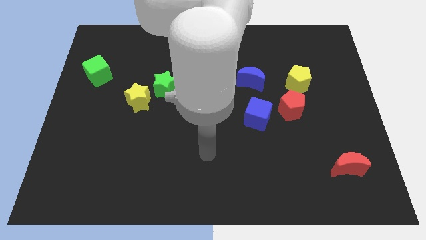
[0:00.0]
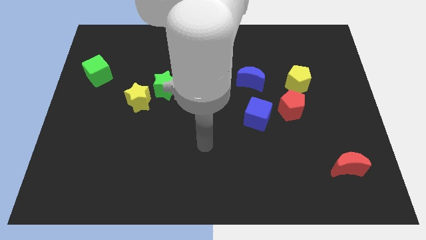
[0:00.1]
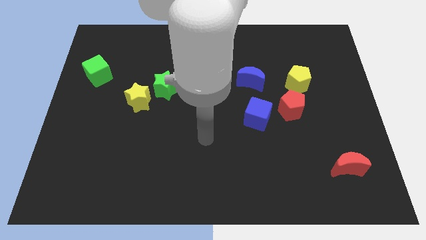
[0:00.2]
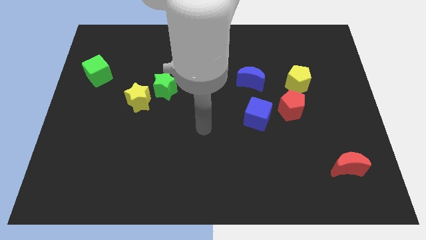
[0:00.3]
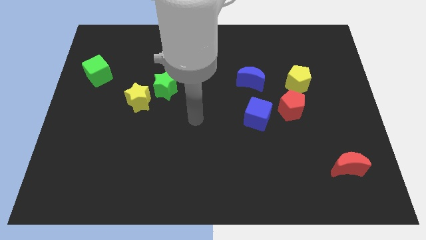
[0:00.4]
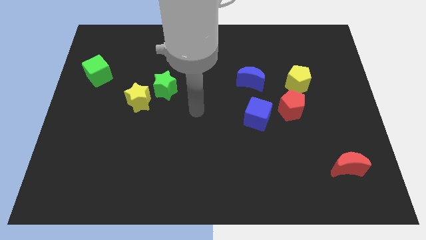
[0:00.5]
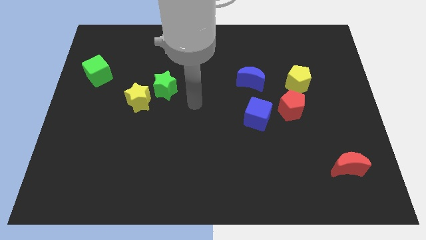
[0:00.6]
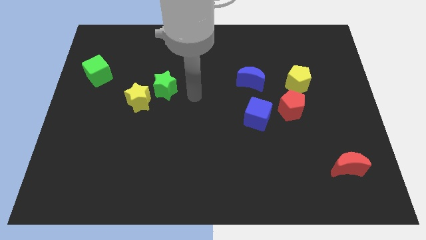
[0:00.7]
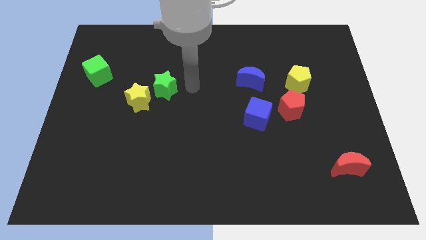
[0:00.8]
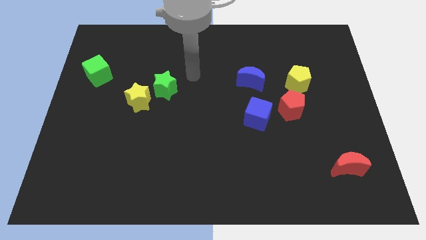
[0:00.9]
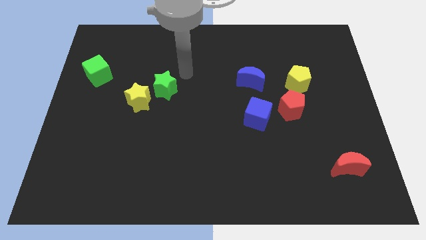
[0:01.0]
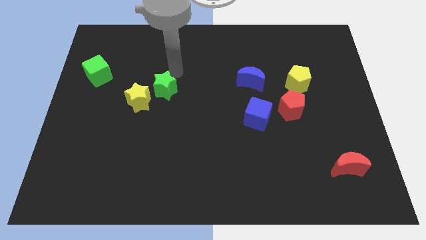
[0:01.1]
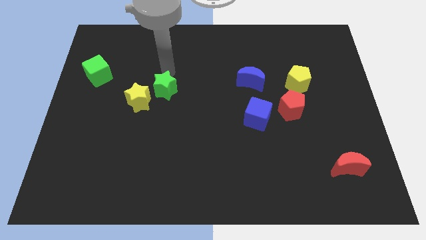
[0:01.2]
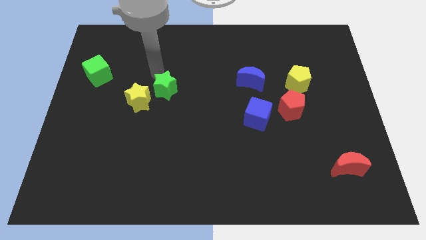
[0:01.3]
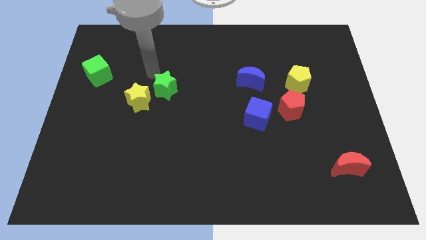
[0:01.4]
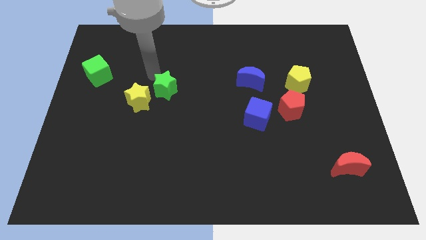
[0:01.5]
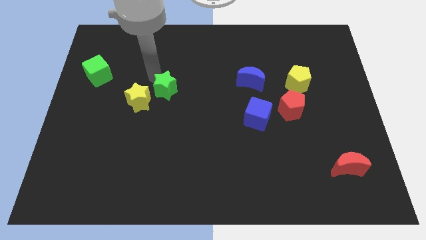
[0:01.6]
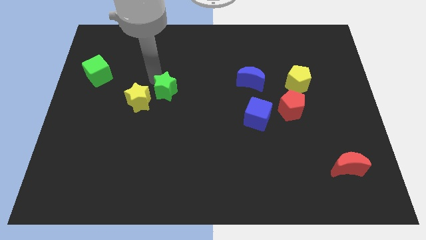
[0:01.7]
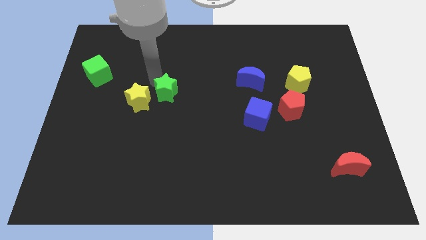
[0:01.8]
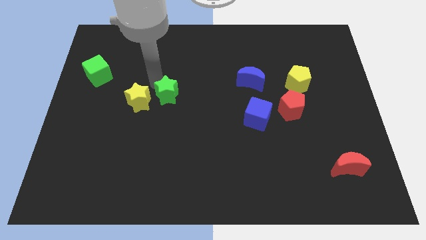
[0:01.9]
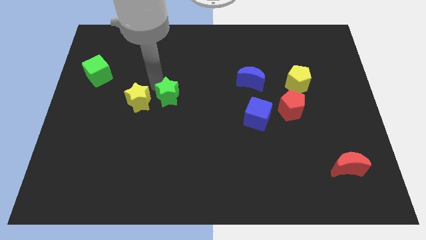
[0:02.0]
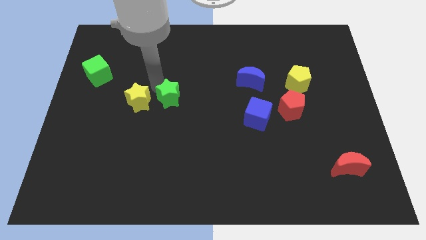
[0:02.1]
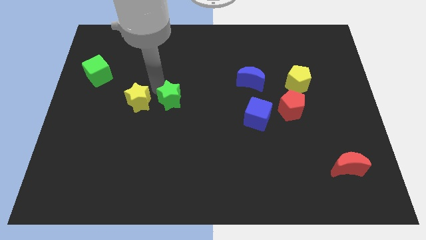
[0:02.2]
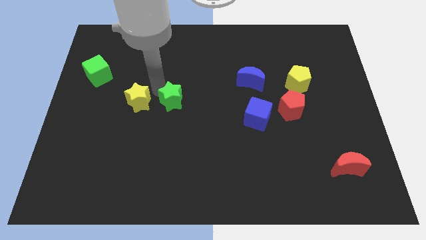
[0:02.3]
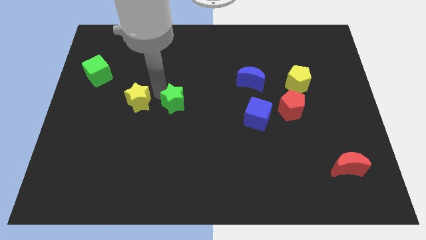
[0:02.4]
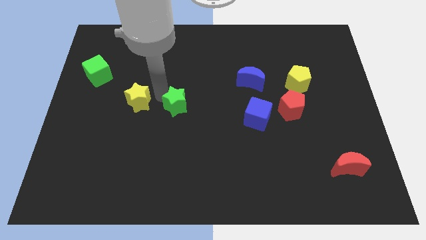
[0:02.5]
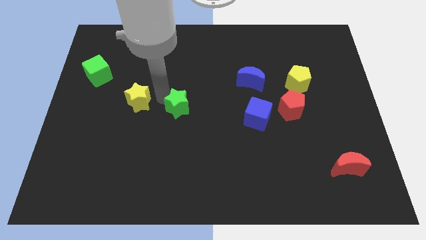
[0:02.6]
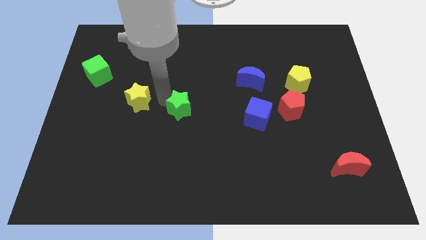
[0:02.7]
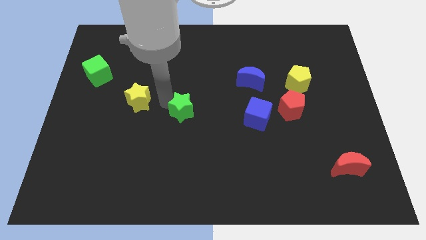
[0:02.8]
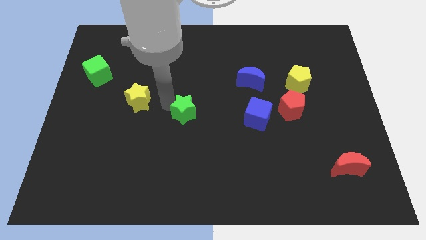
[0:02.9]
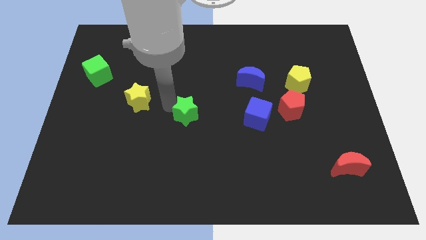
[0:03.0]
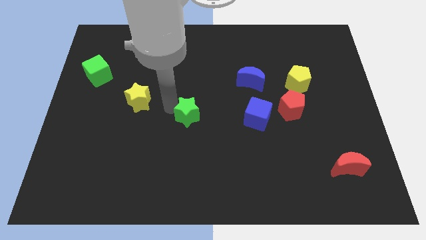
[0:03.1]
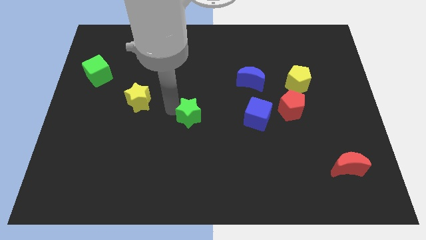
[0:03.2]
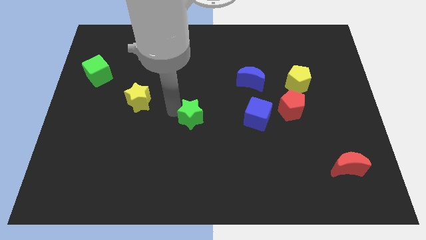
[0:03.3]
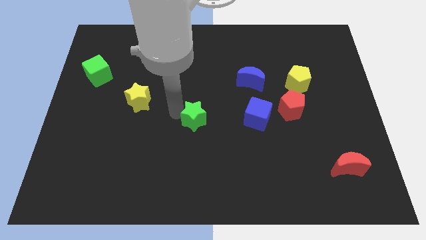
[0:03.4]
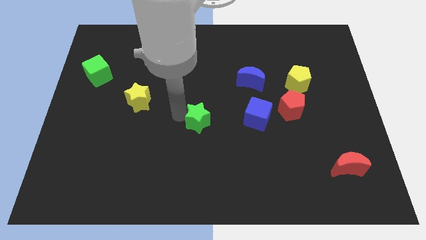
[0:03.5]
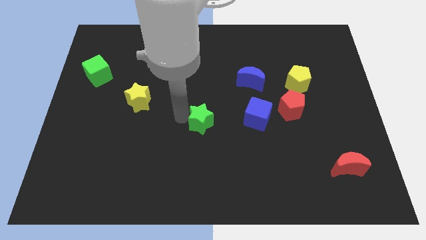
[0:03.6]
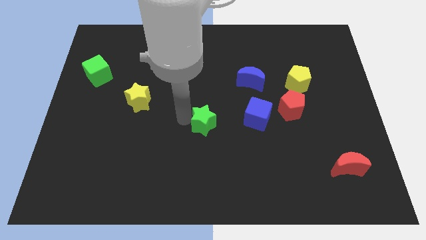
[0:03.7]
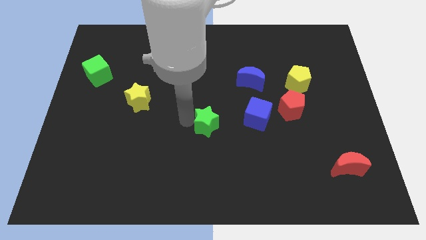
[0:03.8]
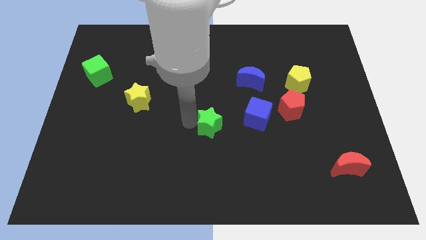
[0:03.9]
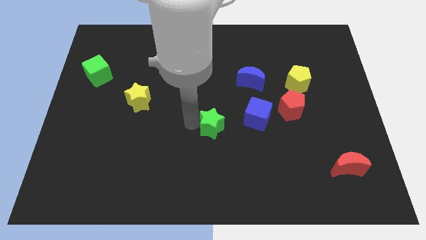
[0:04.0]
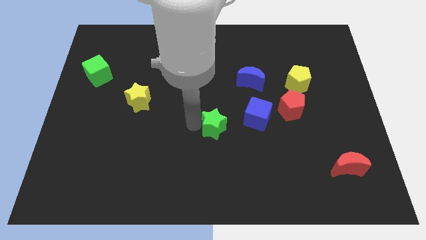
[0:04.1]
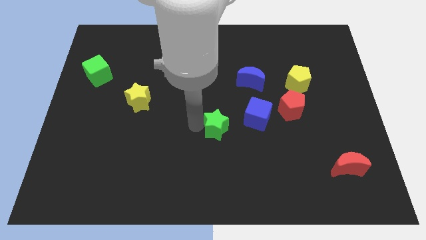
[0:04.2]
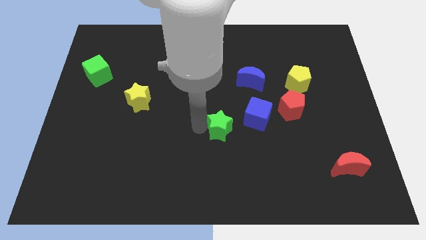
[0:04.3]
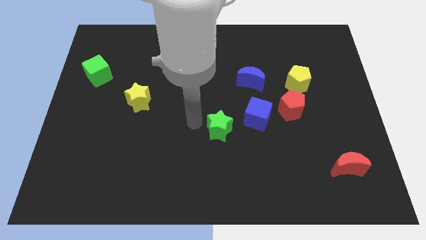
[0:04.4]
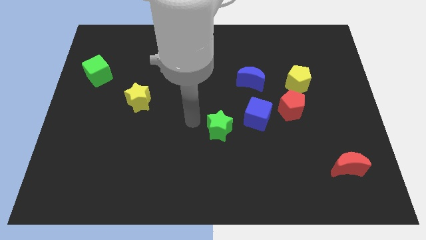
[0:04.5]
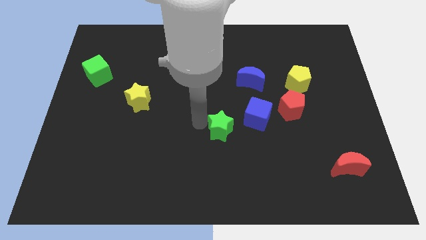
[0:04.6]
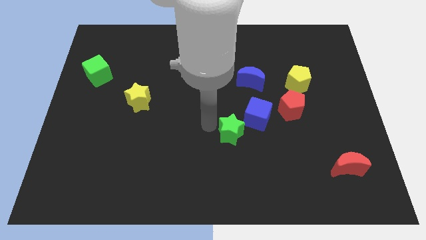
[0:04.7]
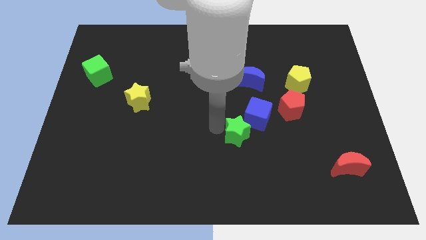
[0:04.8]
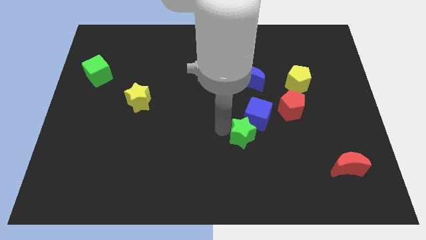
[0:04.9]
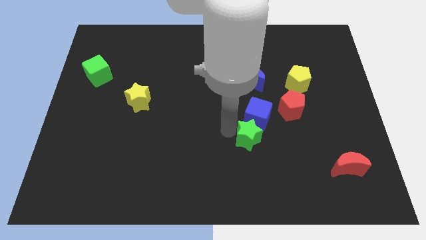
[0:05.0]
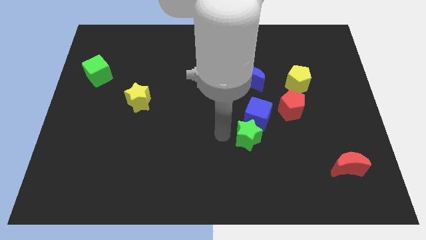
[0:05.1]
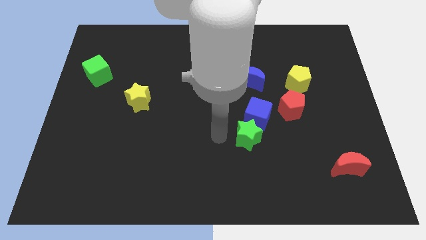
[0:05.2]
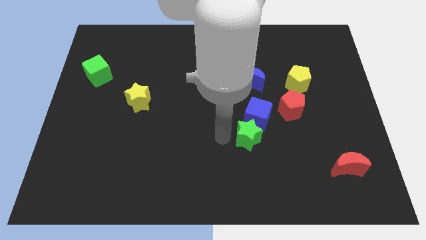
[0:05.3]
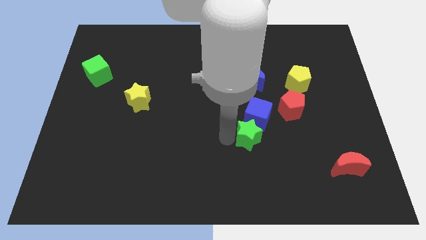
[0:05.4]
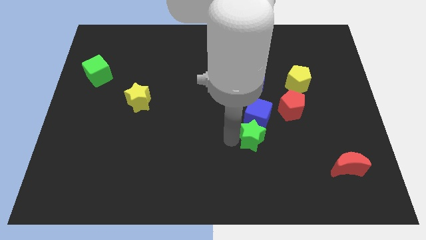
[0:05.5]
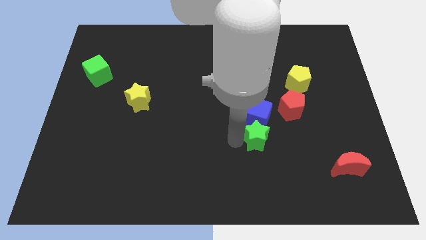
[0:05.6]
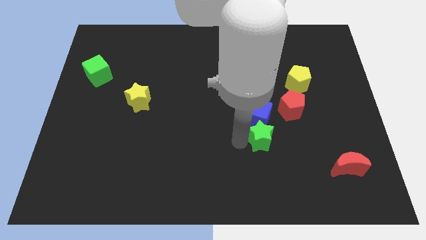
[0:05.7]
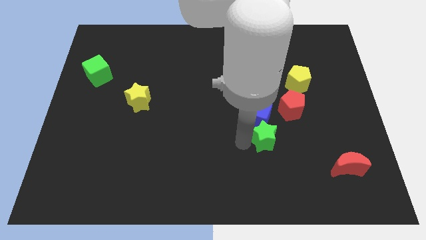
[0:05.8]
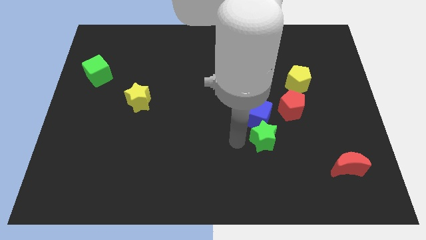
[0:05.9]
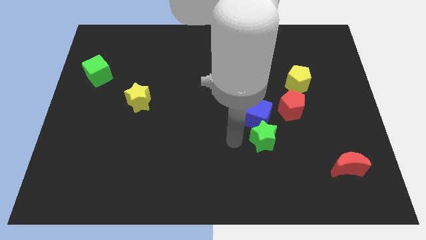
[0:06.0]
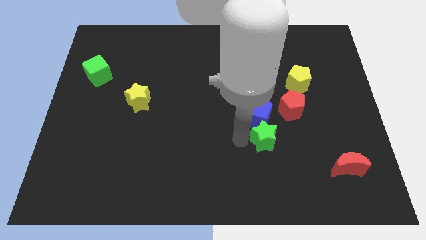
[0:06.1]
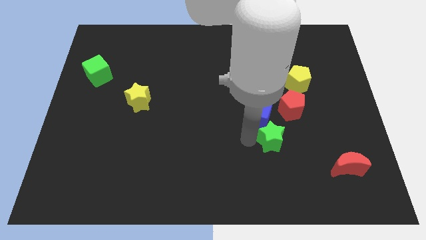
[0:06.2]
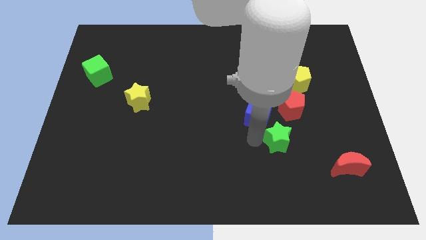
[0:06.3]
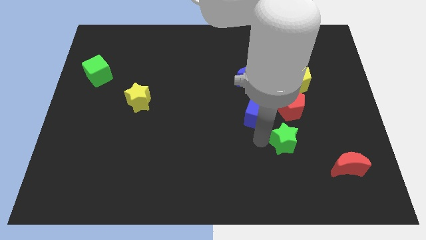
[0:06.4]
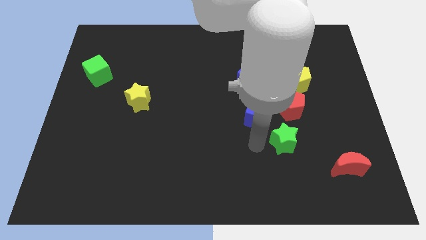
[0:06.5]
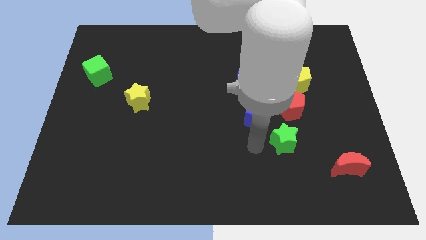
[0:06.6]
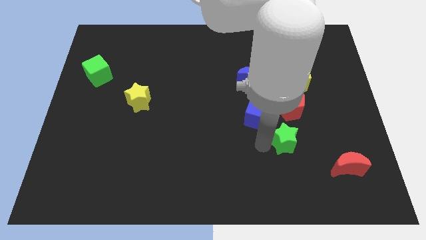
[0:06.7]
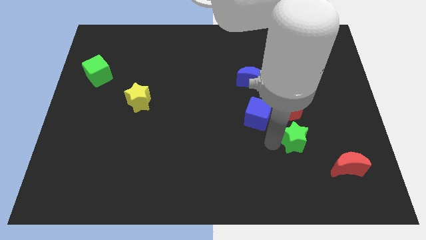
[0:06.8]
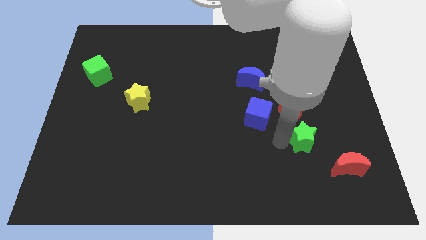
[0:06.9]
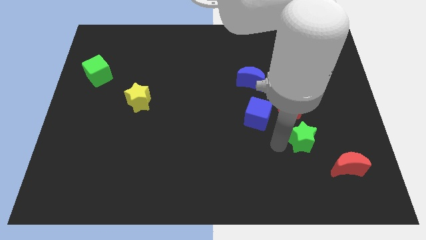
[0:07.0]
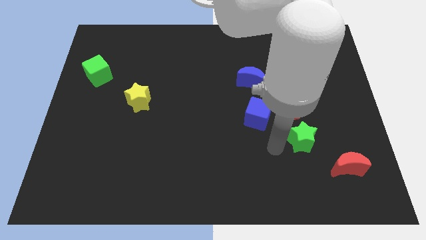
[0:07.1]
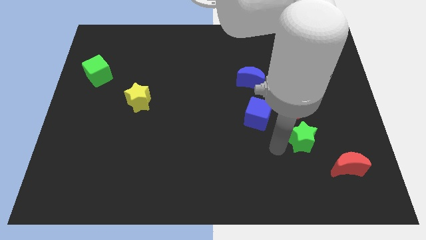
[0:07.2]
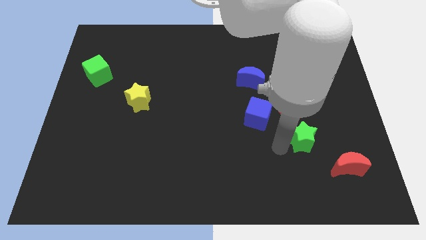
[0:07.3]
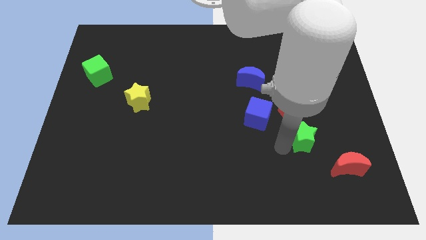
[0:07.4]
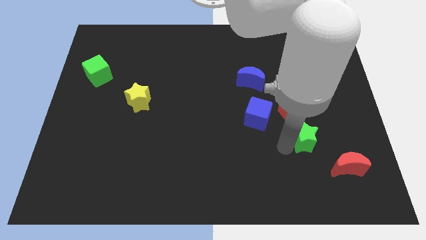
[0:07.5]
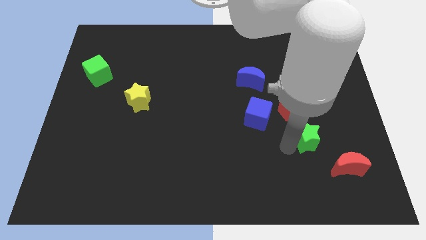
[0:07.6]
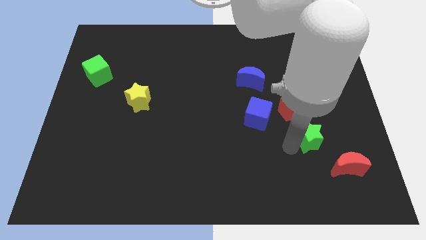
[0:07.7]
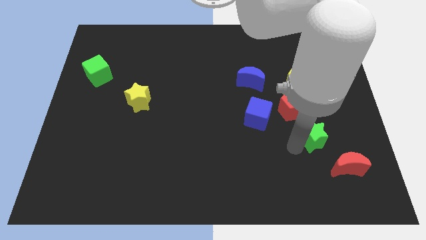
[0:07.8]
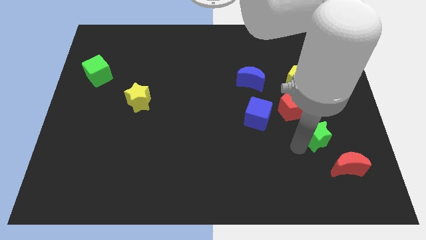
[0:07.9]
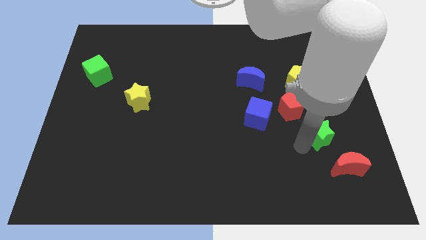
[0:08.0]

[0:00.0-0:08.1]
move the green star to the top of the red moon
